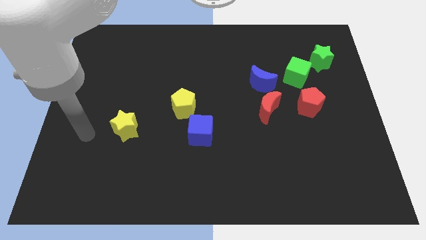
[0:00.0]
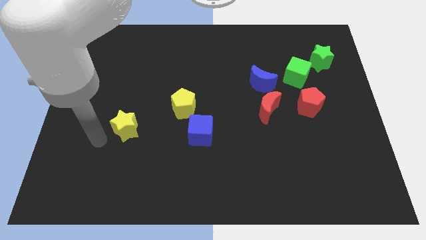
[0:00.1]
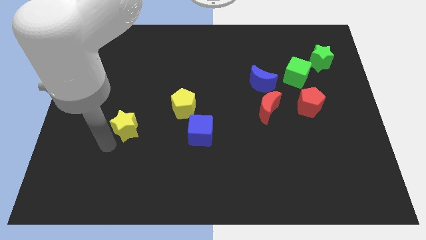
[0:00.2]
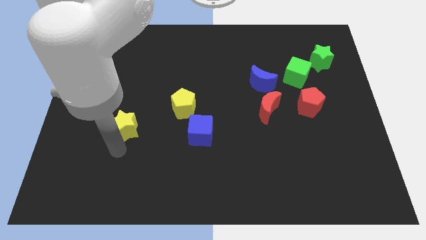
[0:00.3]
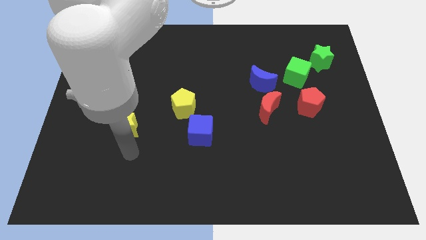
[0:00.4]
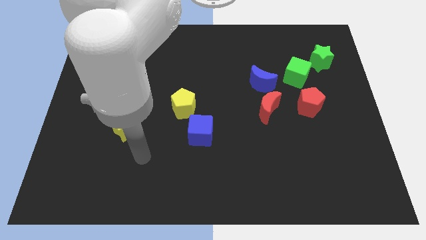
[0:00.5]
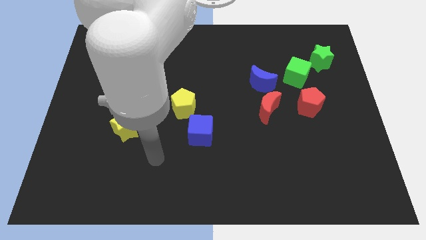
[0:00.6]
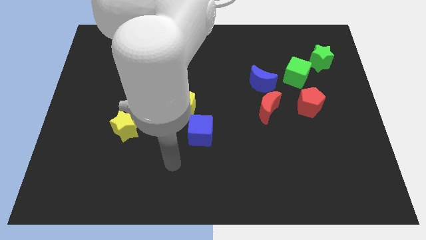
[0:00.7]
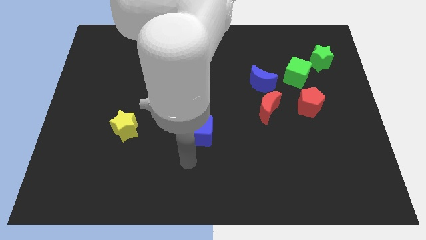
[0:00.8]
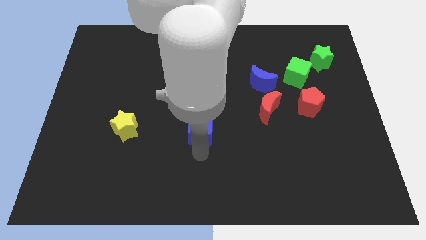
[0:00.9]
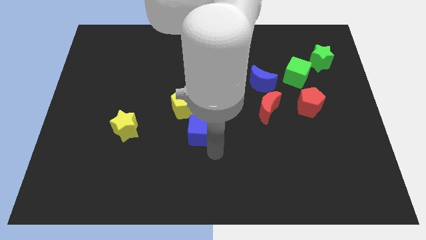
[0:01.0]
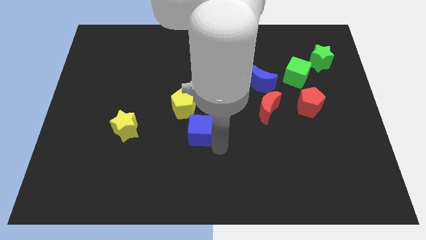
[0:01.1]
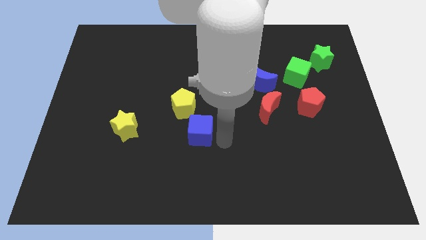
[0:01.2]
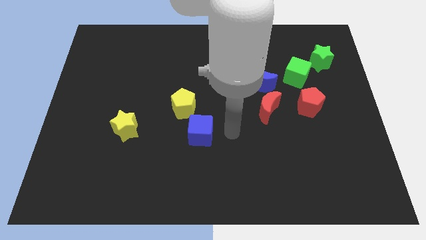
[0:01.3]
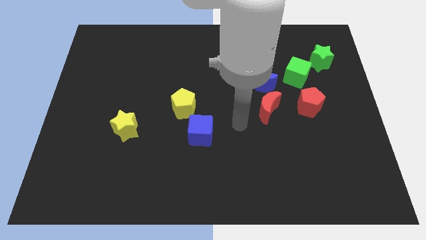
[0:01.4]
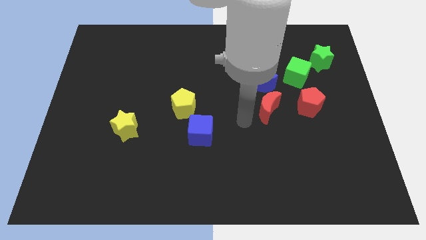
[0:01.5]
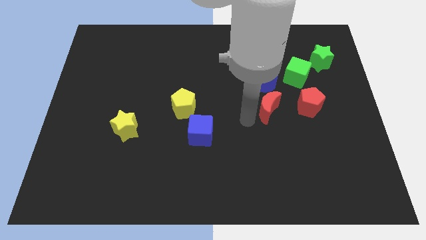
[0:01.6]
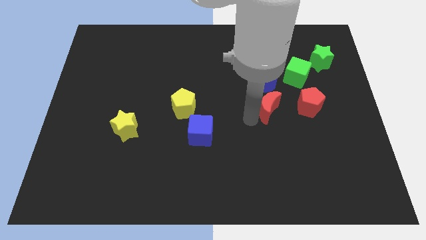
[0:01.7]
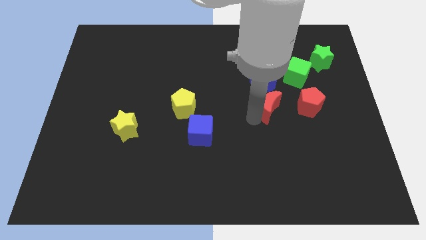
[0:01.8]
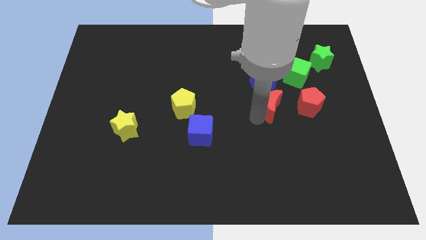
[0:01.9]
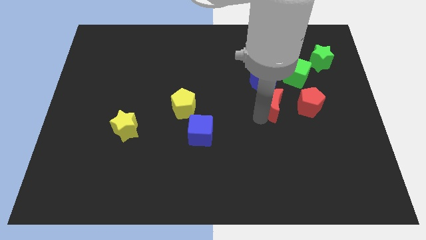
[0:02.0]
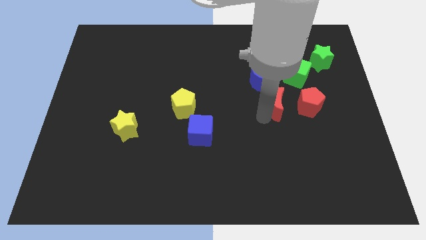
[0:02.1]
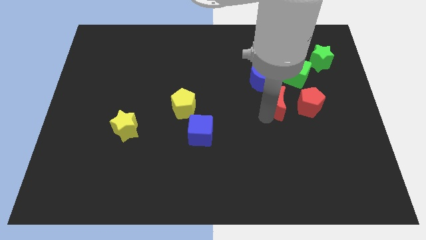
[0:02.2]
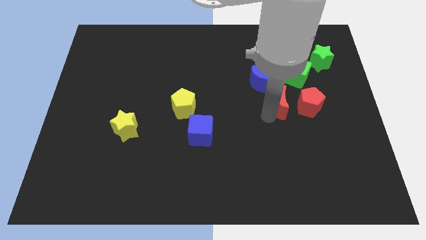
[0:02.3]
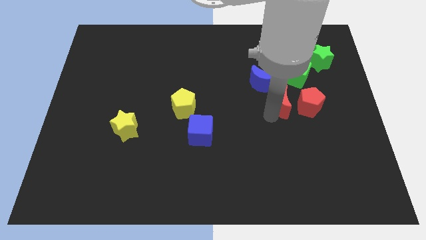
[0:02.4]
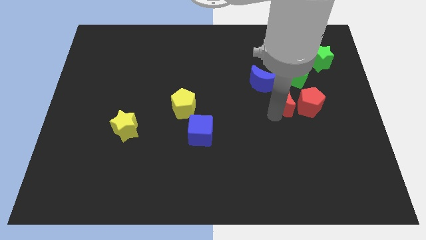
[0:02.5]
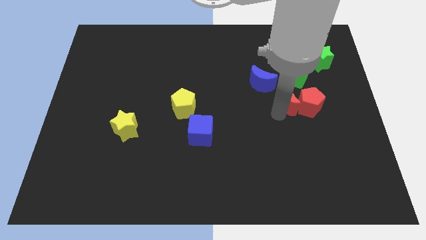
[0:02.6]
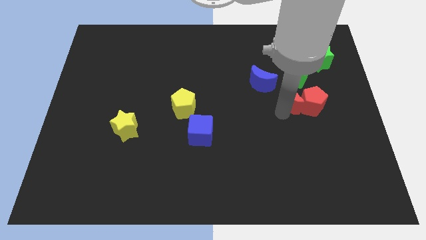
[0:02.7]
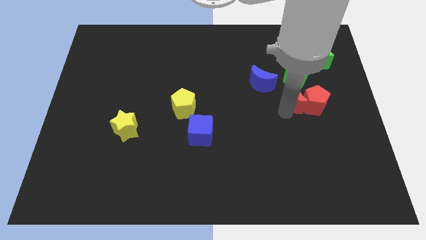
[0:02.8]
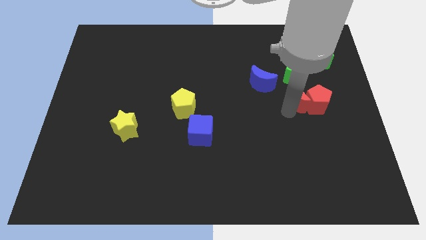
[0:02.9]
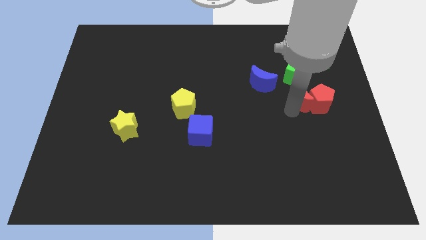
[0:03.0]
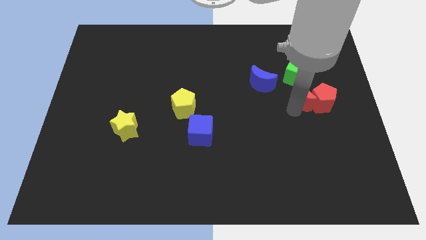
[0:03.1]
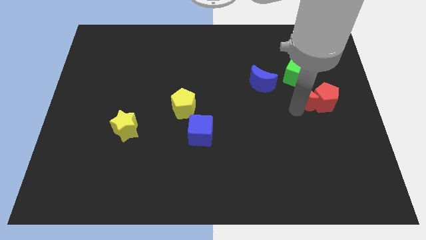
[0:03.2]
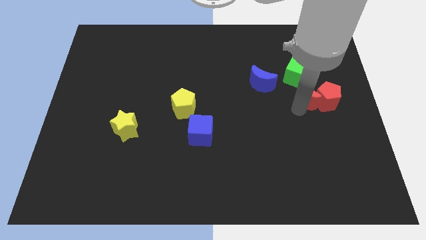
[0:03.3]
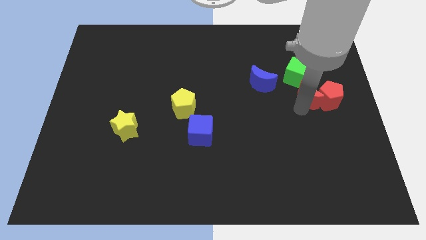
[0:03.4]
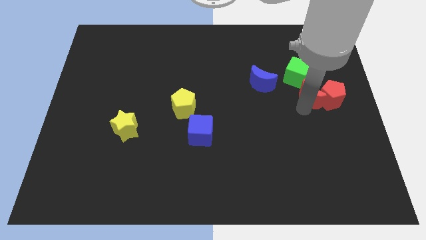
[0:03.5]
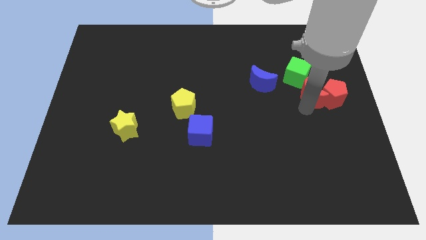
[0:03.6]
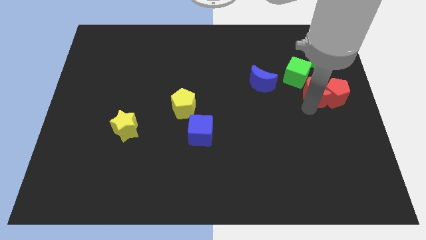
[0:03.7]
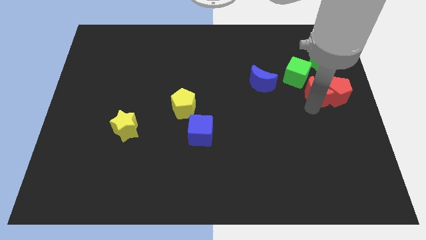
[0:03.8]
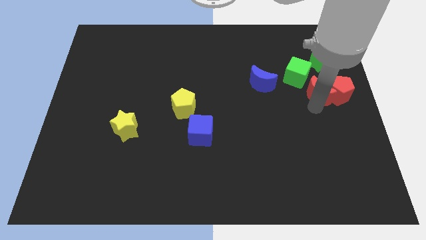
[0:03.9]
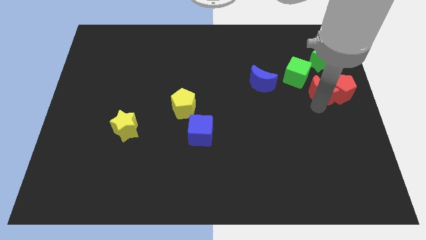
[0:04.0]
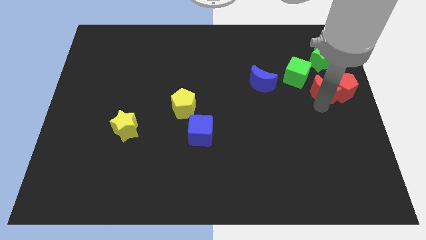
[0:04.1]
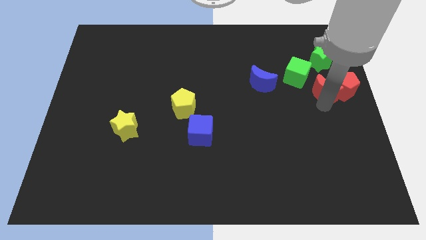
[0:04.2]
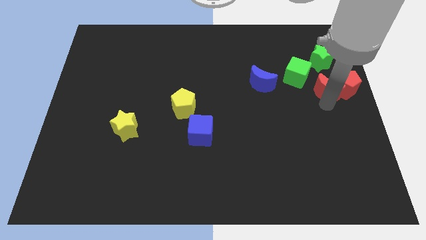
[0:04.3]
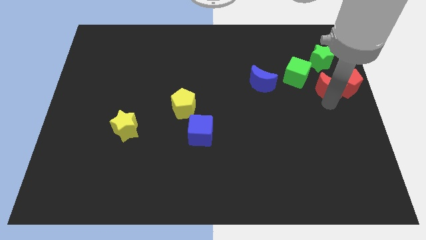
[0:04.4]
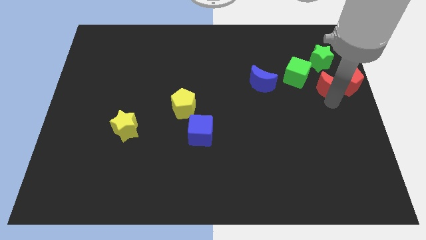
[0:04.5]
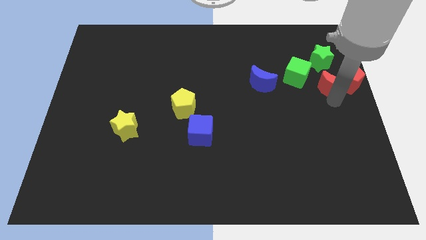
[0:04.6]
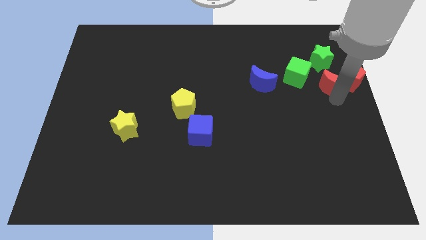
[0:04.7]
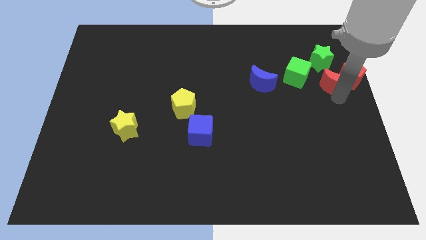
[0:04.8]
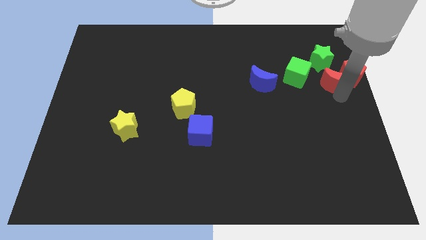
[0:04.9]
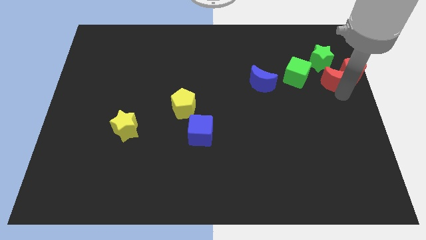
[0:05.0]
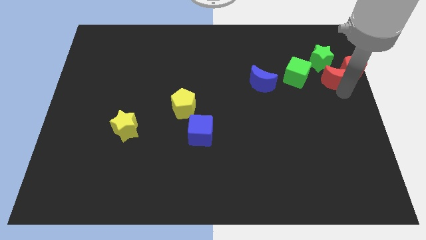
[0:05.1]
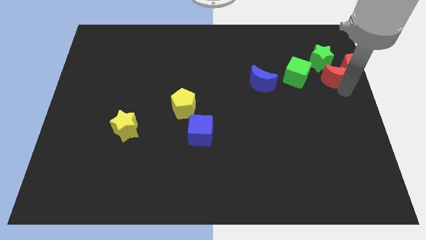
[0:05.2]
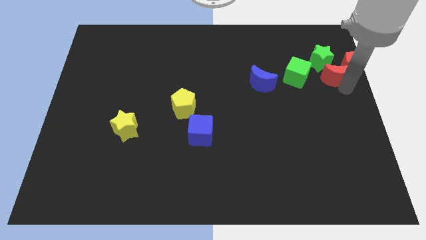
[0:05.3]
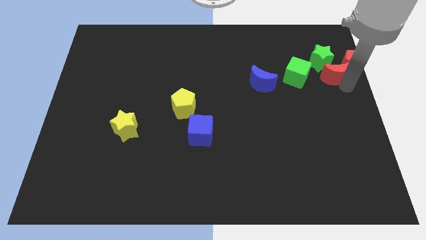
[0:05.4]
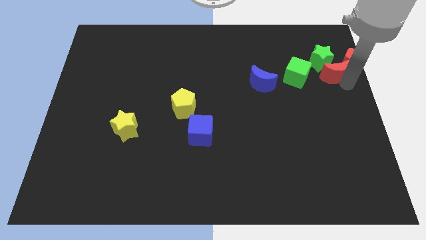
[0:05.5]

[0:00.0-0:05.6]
slide the red moon to the green star

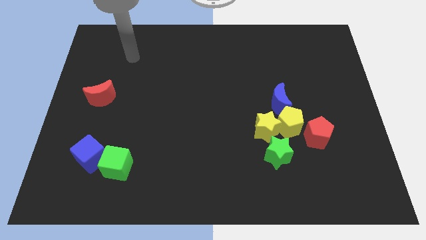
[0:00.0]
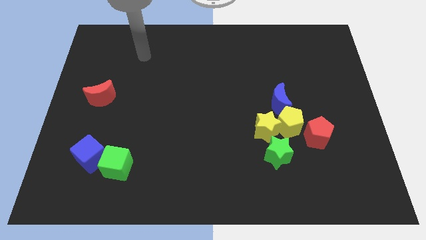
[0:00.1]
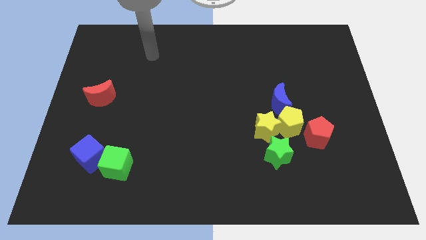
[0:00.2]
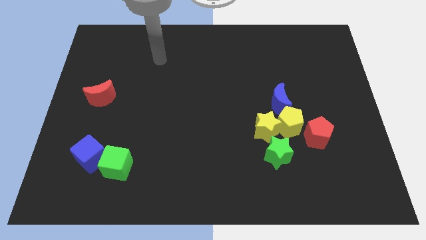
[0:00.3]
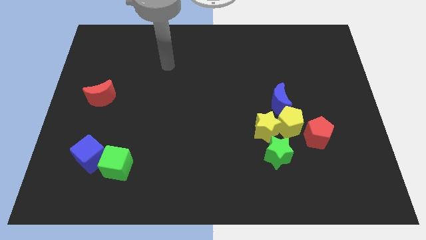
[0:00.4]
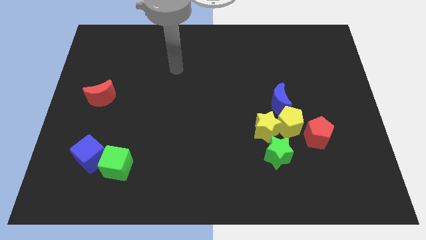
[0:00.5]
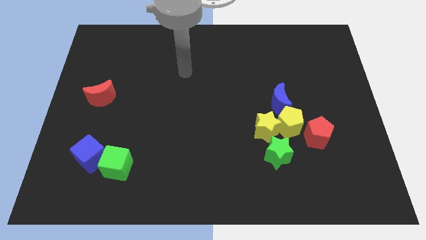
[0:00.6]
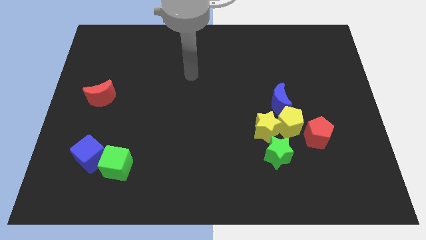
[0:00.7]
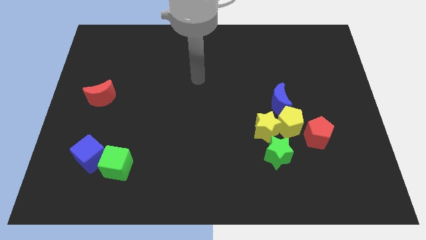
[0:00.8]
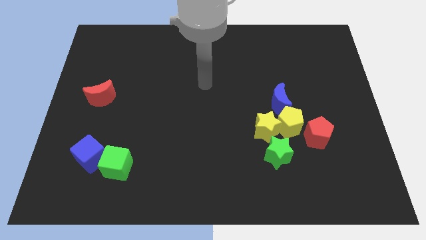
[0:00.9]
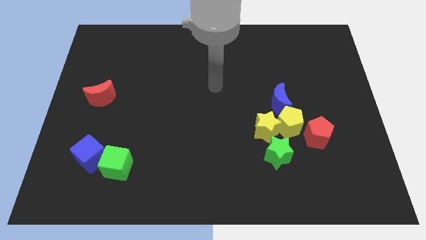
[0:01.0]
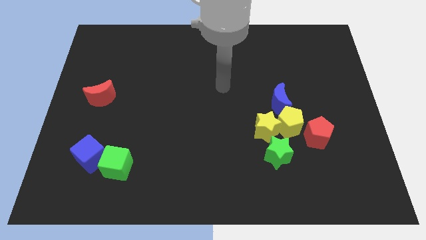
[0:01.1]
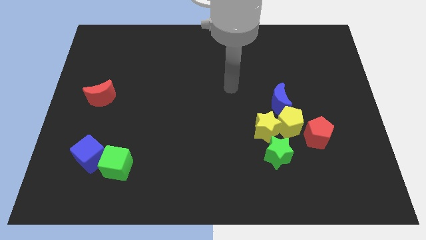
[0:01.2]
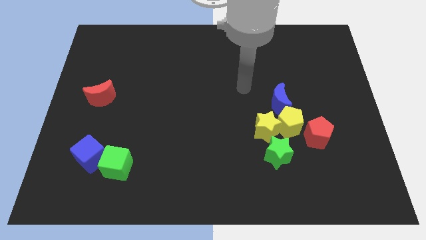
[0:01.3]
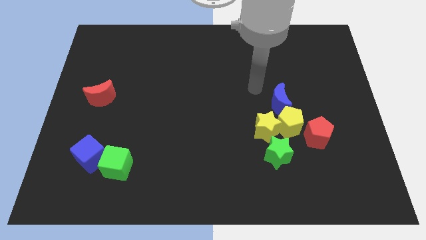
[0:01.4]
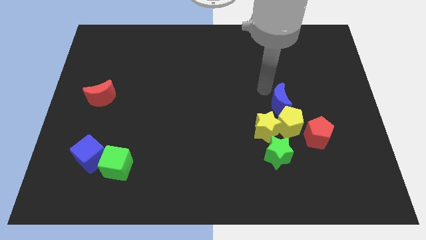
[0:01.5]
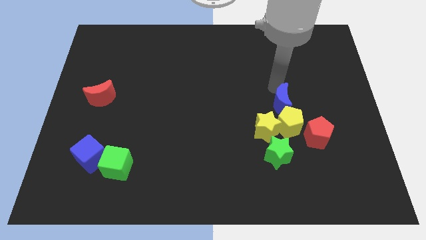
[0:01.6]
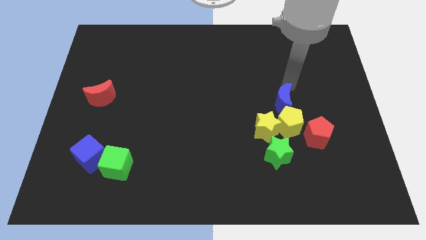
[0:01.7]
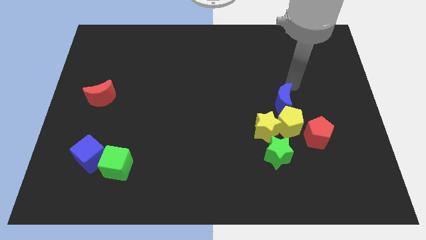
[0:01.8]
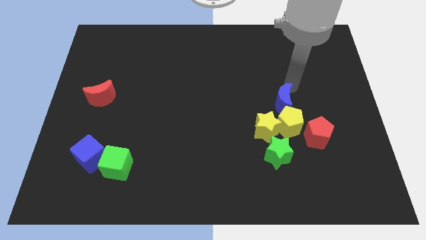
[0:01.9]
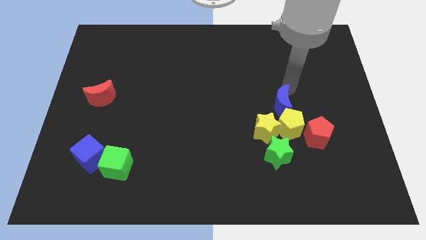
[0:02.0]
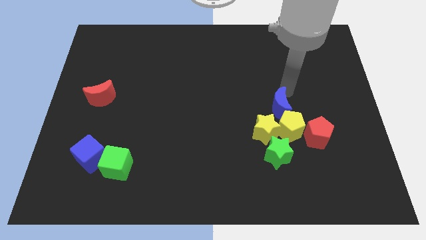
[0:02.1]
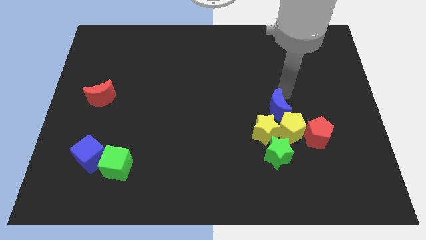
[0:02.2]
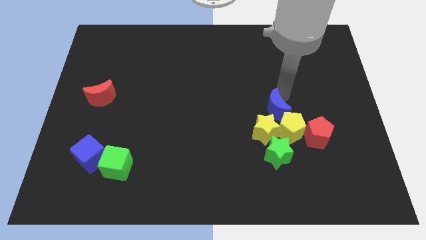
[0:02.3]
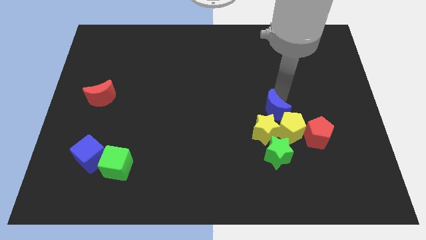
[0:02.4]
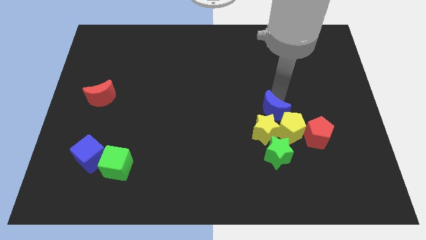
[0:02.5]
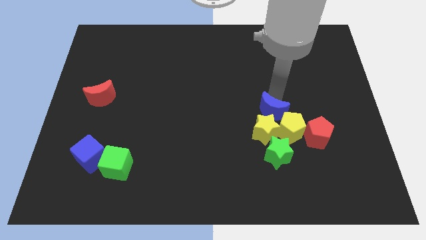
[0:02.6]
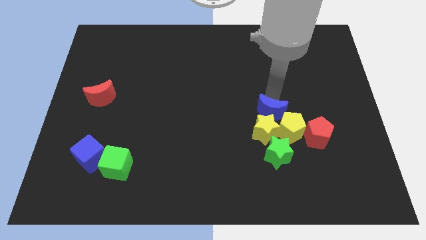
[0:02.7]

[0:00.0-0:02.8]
slide the blue moon towards the yellow star
